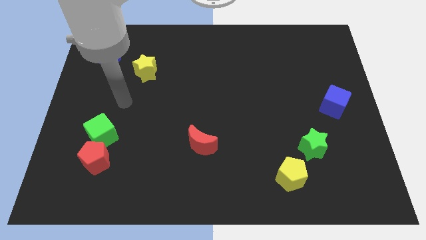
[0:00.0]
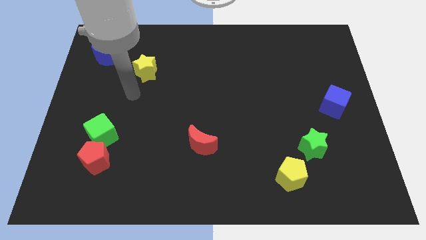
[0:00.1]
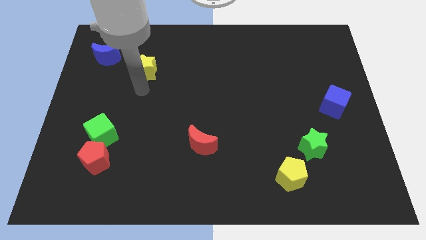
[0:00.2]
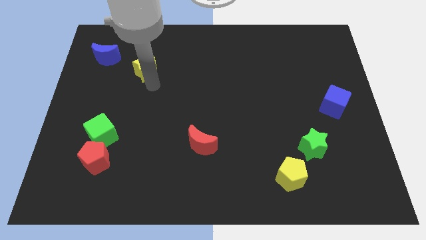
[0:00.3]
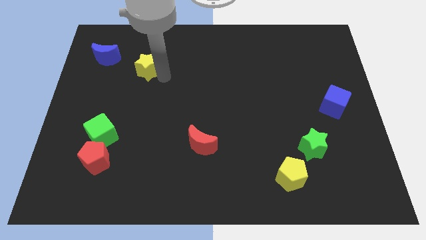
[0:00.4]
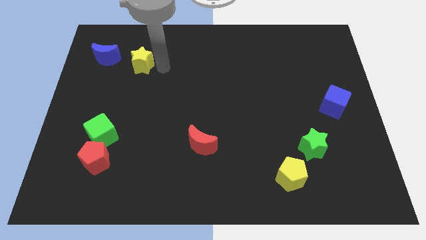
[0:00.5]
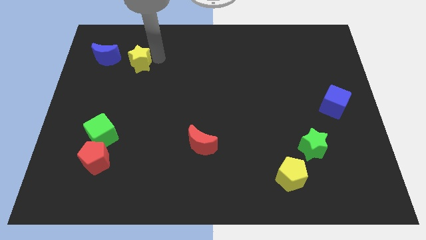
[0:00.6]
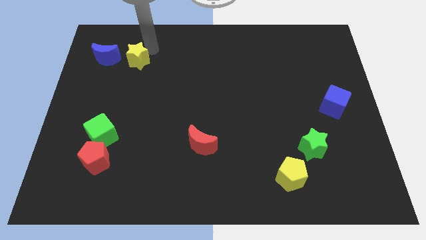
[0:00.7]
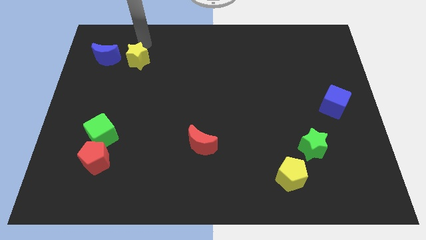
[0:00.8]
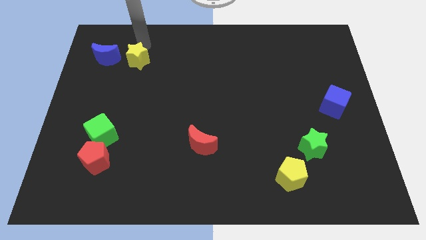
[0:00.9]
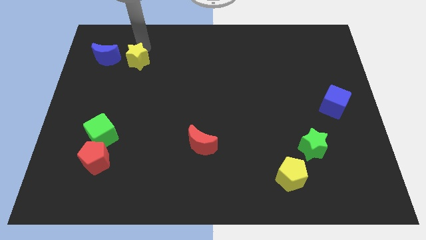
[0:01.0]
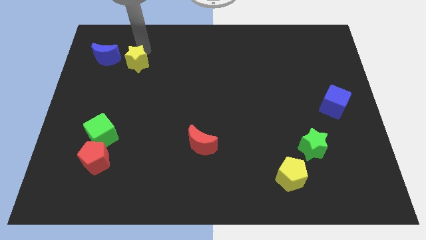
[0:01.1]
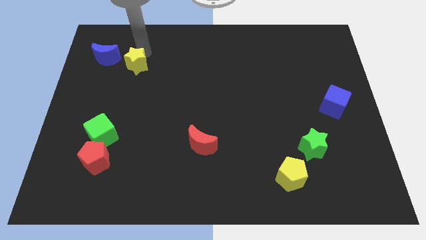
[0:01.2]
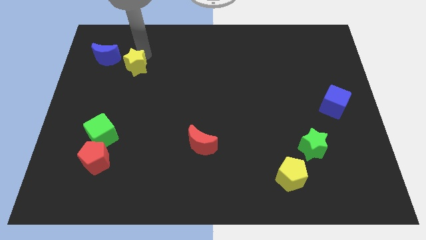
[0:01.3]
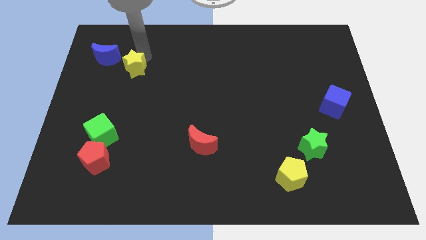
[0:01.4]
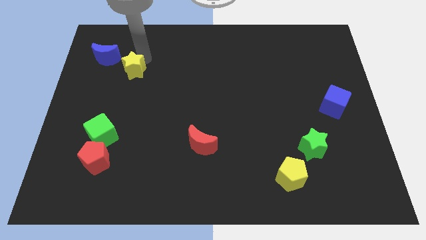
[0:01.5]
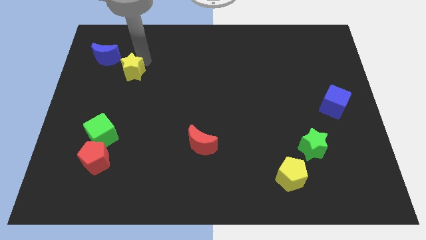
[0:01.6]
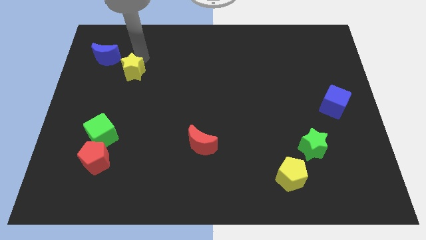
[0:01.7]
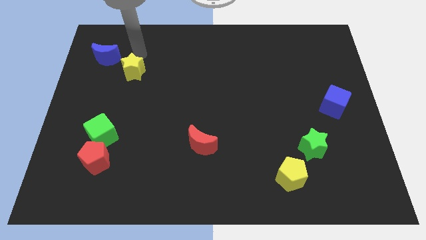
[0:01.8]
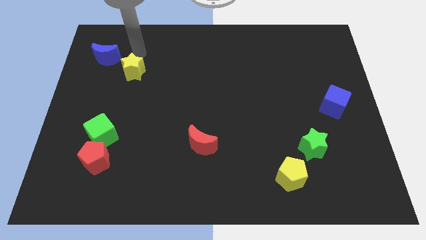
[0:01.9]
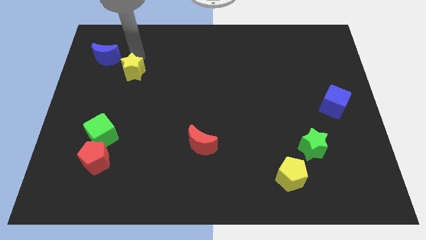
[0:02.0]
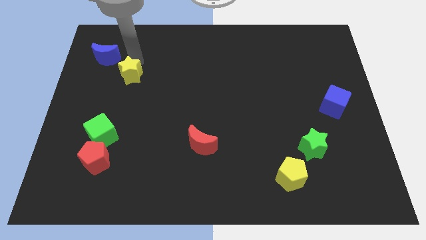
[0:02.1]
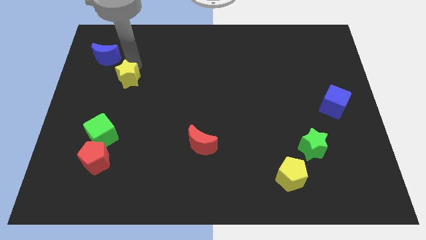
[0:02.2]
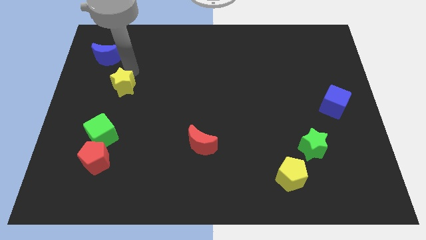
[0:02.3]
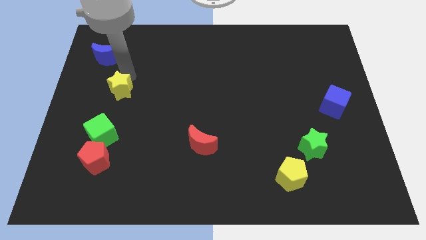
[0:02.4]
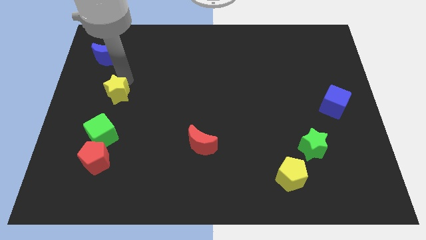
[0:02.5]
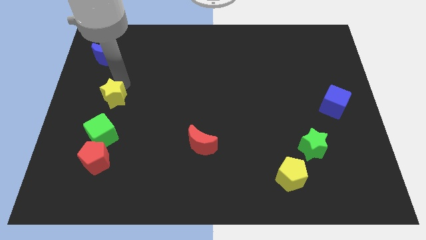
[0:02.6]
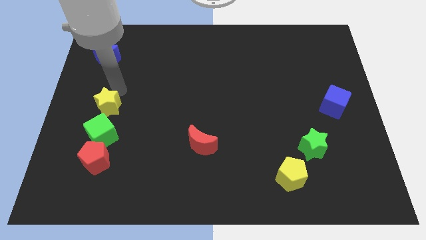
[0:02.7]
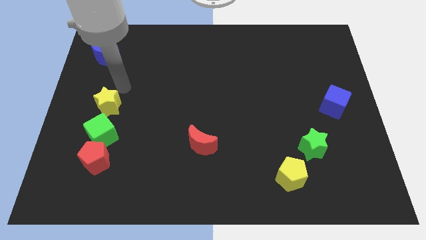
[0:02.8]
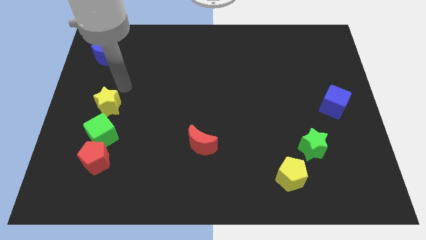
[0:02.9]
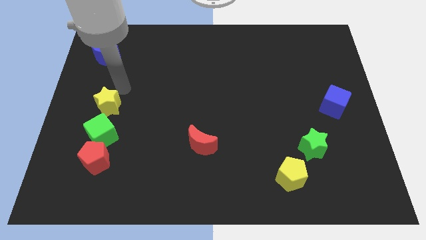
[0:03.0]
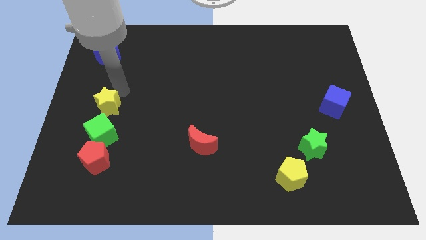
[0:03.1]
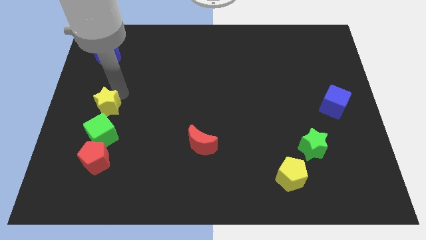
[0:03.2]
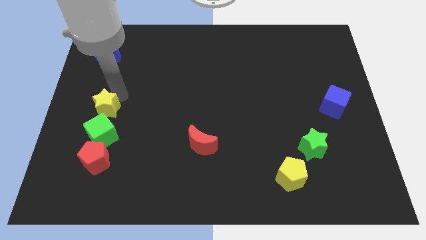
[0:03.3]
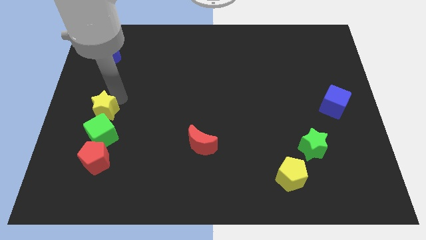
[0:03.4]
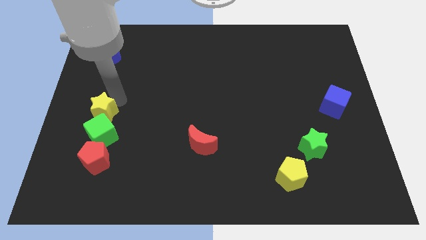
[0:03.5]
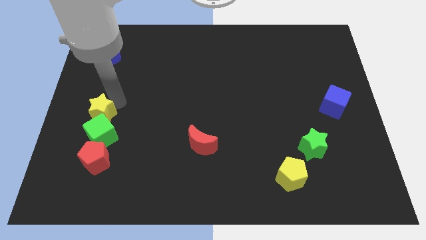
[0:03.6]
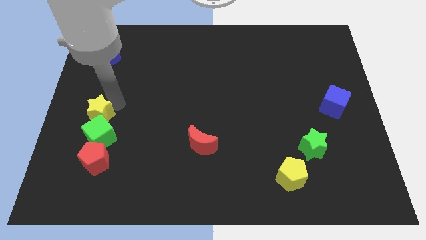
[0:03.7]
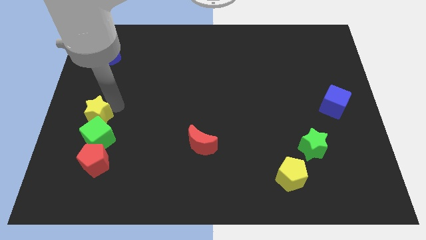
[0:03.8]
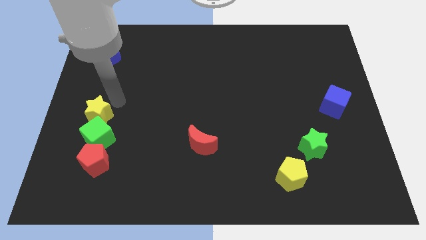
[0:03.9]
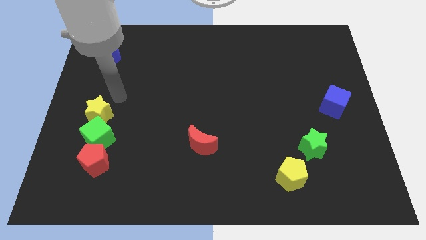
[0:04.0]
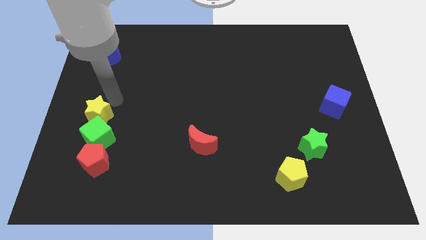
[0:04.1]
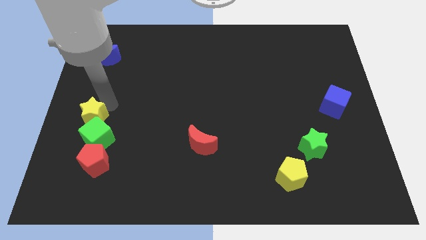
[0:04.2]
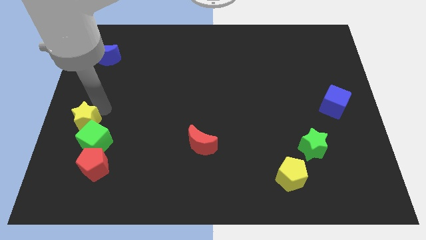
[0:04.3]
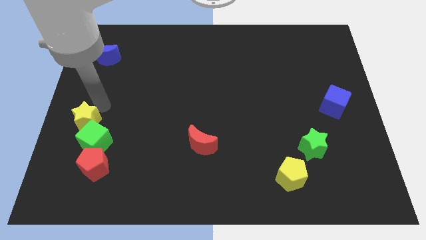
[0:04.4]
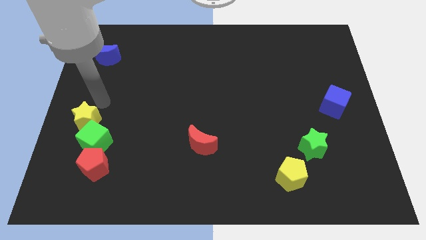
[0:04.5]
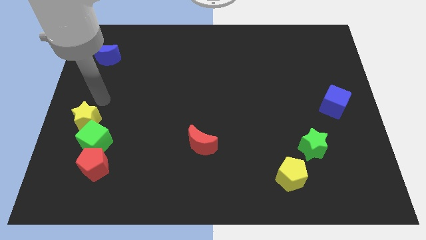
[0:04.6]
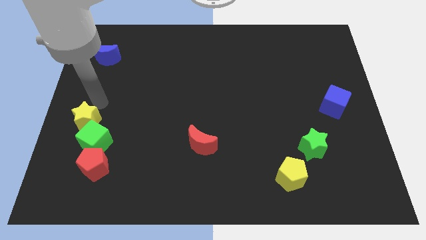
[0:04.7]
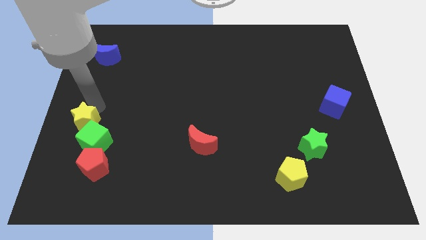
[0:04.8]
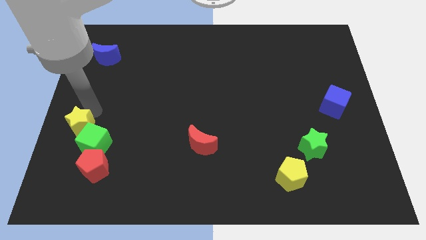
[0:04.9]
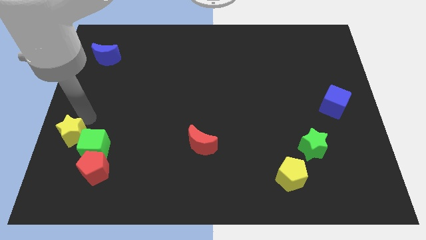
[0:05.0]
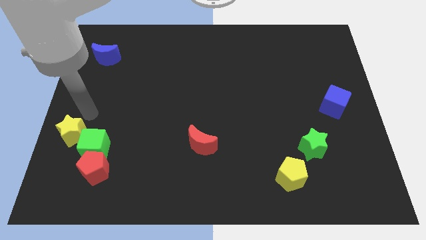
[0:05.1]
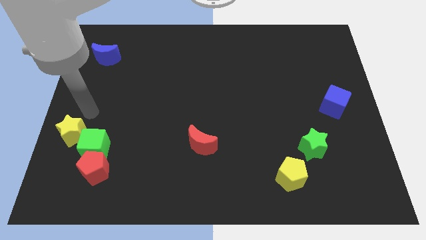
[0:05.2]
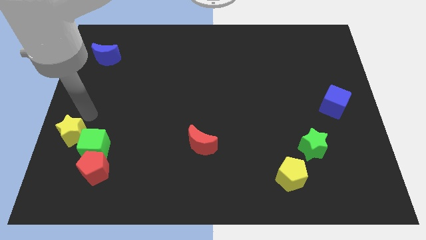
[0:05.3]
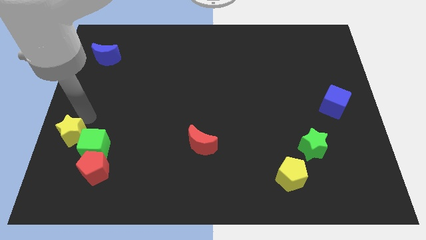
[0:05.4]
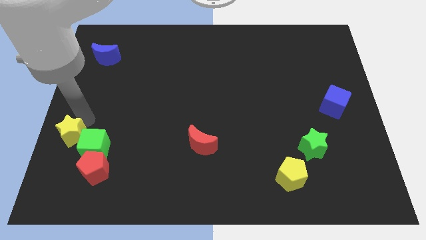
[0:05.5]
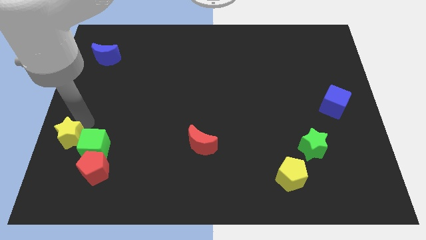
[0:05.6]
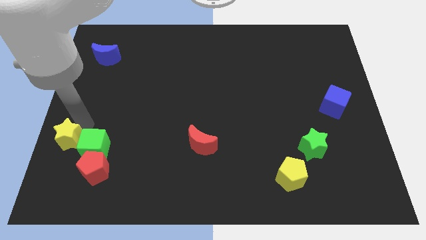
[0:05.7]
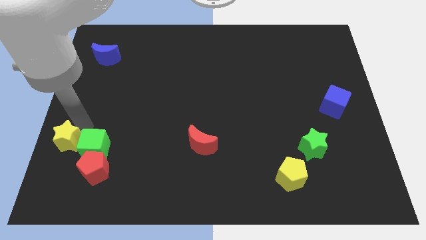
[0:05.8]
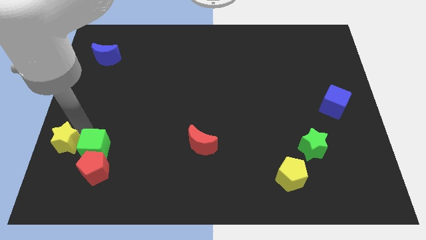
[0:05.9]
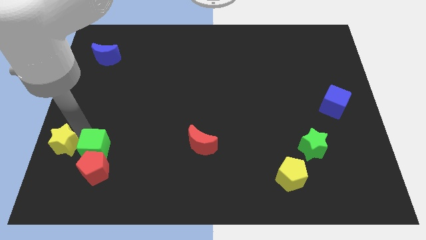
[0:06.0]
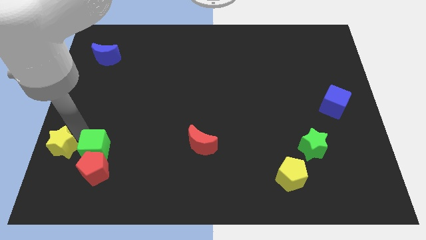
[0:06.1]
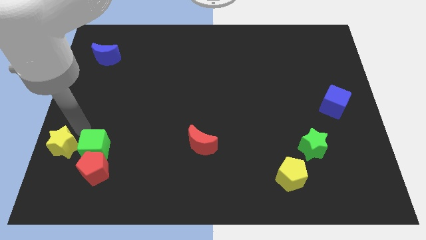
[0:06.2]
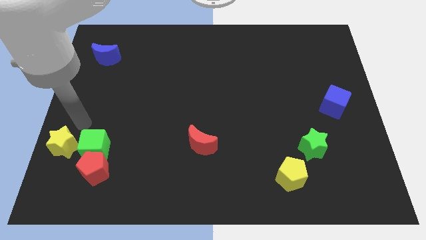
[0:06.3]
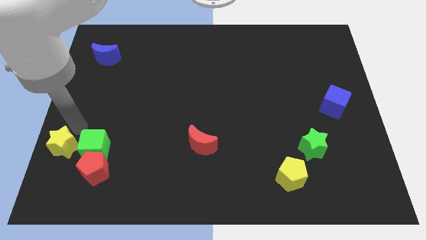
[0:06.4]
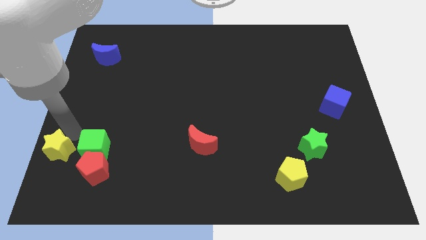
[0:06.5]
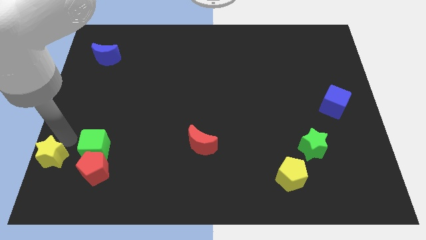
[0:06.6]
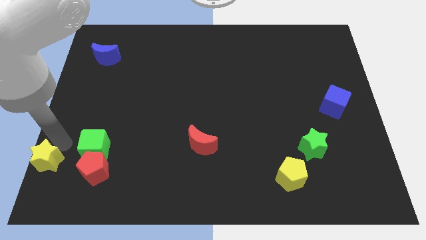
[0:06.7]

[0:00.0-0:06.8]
slide the yellow star to the bottom left corner
